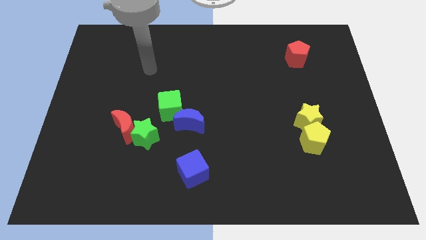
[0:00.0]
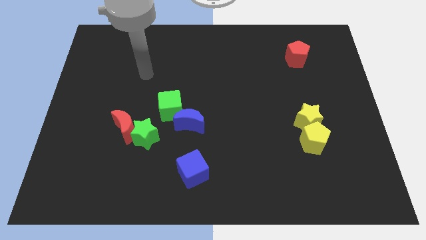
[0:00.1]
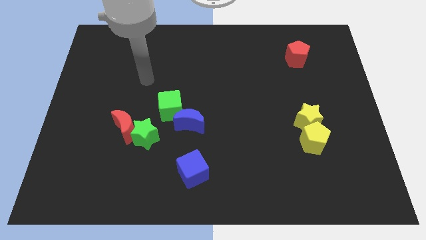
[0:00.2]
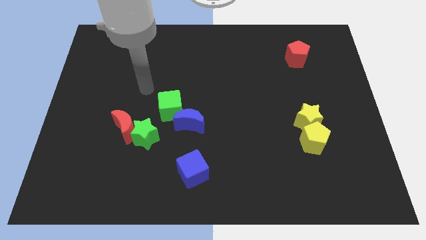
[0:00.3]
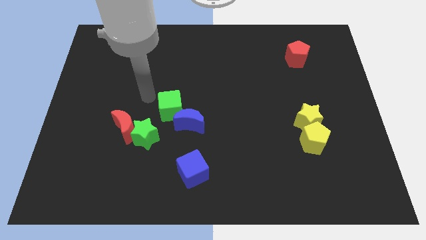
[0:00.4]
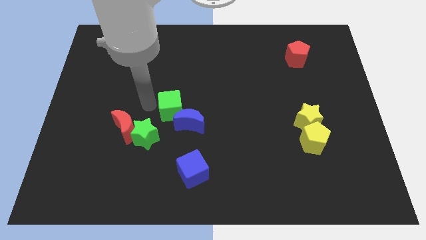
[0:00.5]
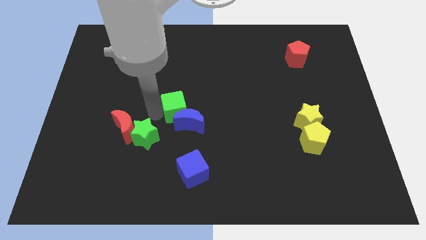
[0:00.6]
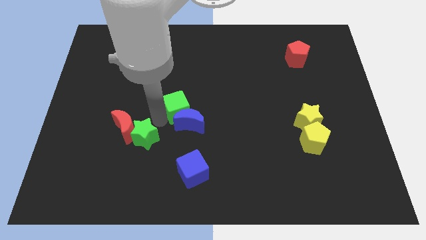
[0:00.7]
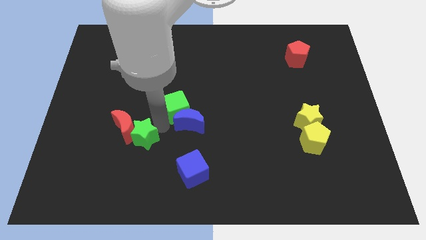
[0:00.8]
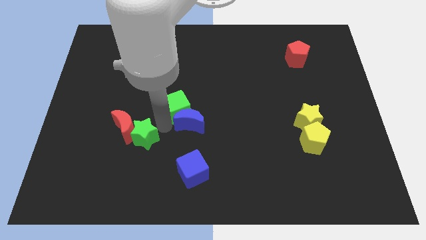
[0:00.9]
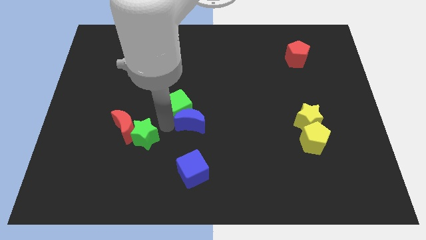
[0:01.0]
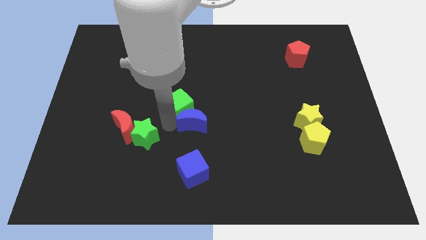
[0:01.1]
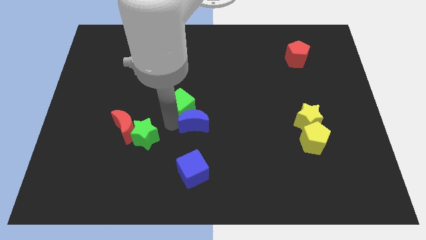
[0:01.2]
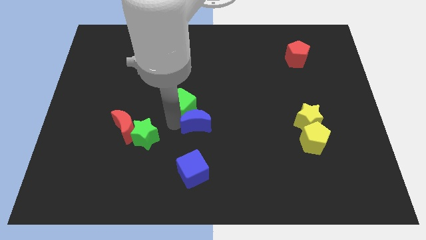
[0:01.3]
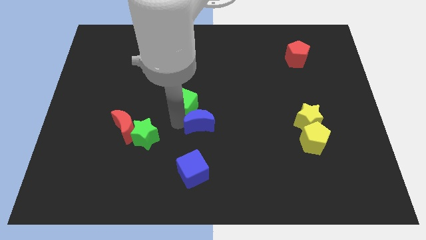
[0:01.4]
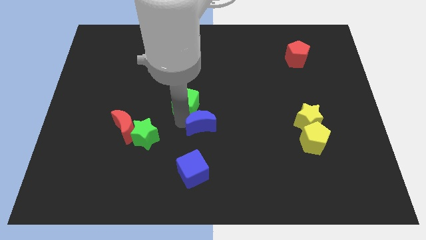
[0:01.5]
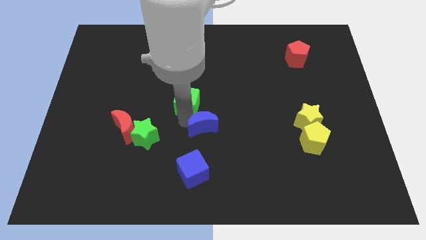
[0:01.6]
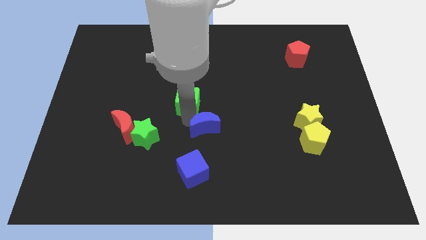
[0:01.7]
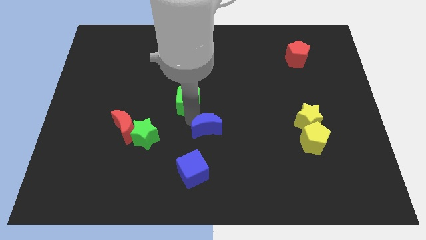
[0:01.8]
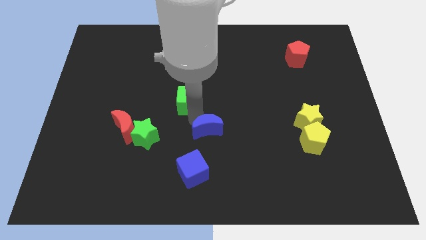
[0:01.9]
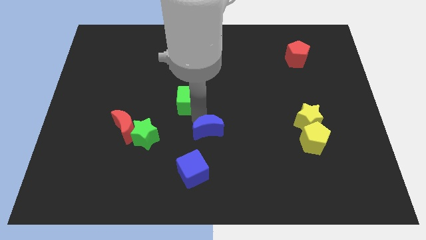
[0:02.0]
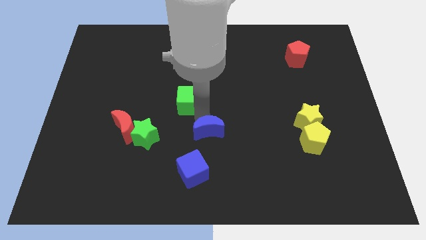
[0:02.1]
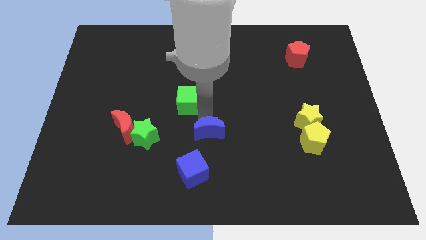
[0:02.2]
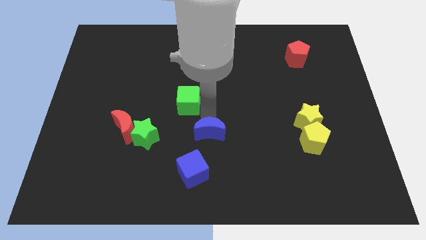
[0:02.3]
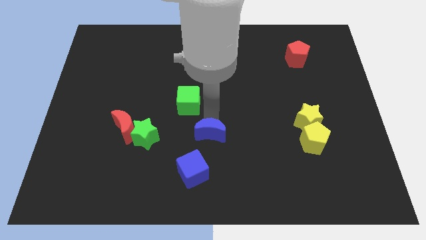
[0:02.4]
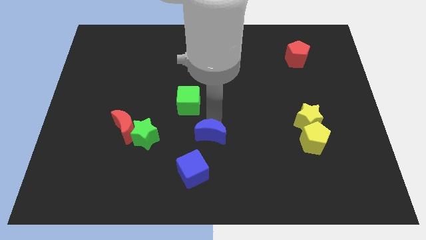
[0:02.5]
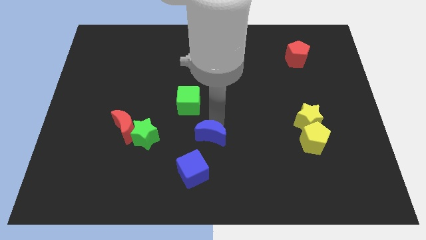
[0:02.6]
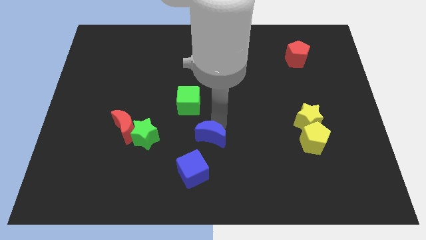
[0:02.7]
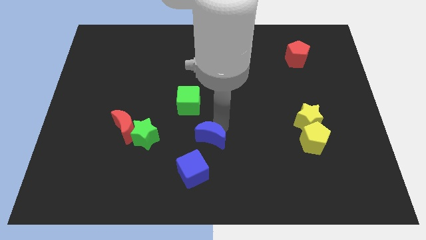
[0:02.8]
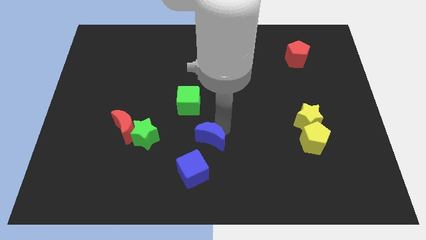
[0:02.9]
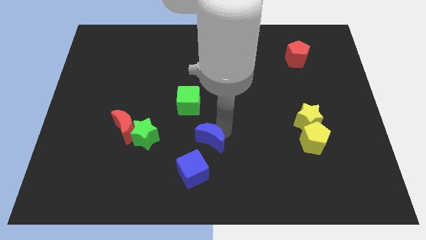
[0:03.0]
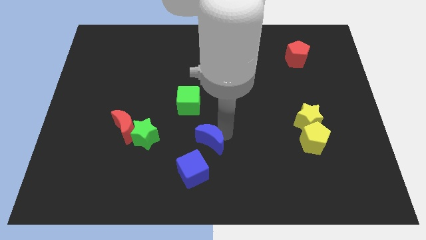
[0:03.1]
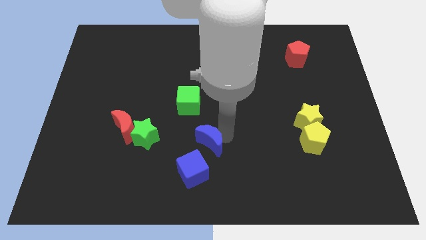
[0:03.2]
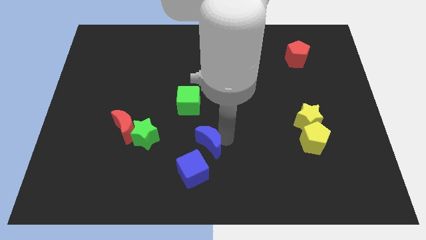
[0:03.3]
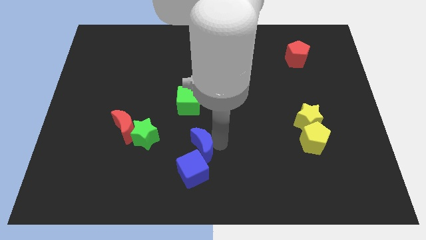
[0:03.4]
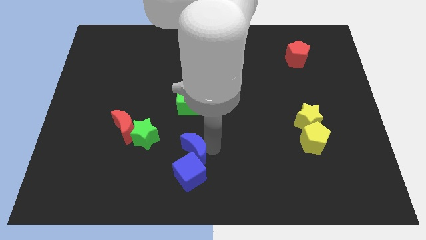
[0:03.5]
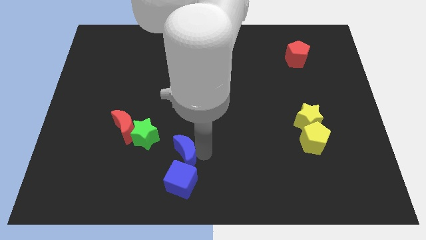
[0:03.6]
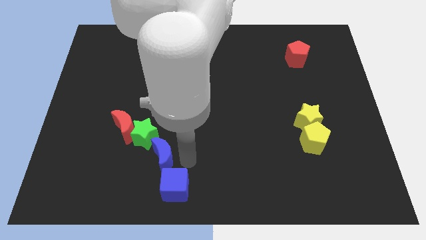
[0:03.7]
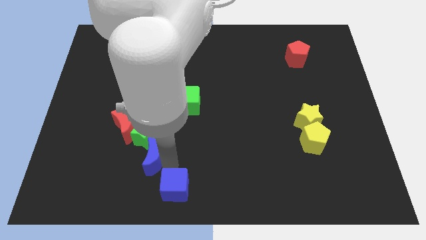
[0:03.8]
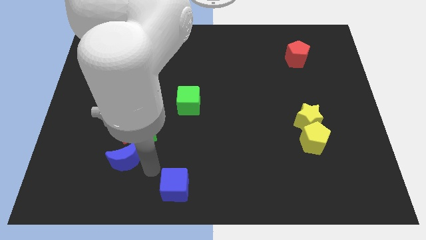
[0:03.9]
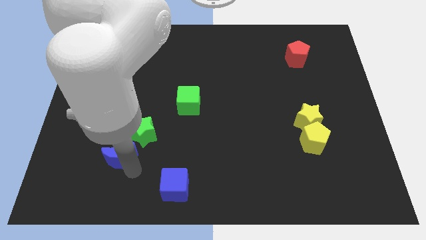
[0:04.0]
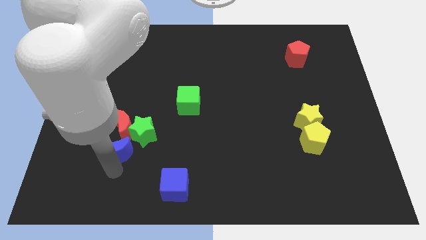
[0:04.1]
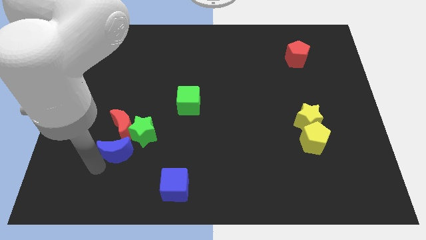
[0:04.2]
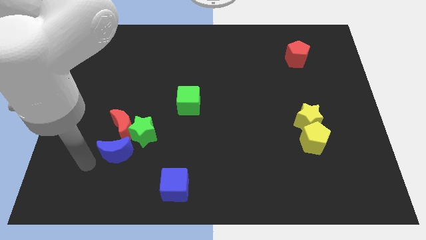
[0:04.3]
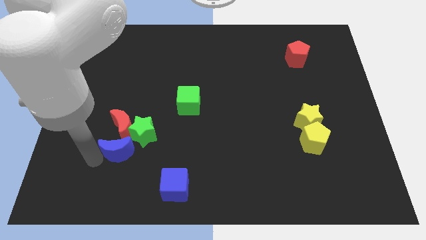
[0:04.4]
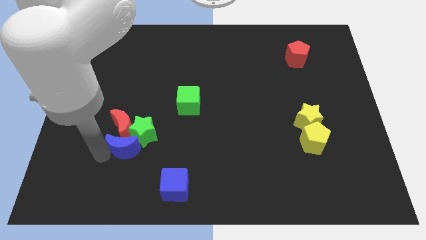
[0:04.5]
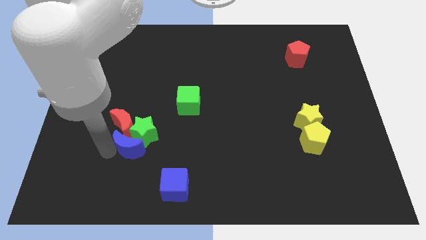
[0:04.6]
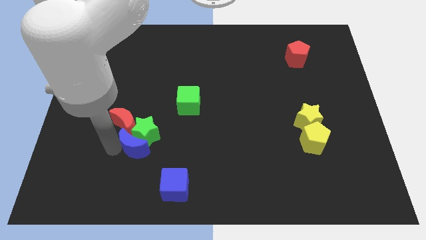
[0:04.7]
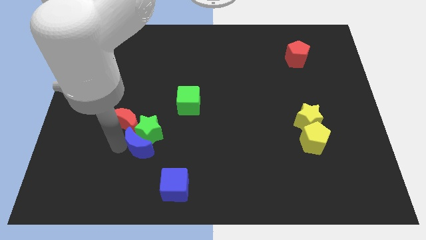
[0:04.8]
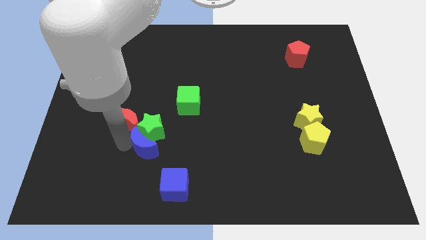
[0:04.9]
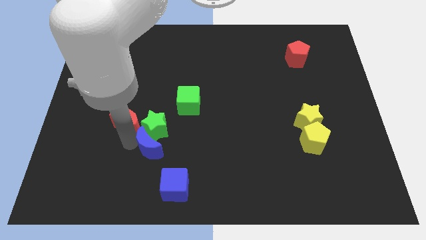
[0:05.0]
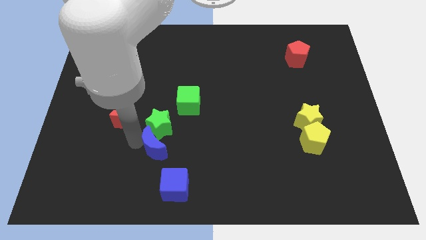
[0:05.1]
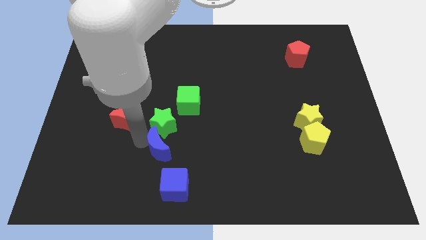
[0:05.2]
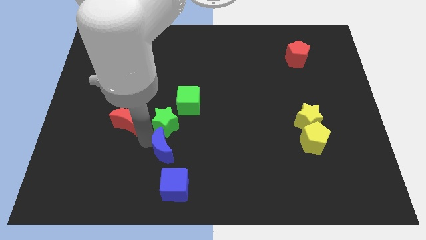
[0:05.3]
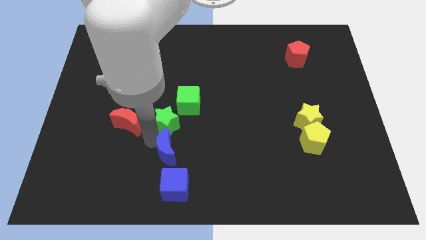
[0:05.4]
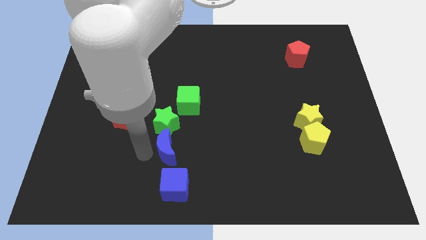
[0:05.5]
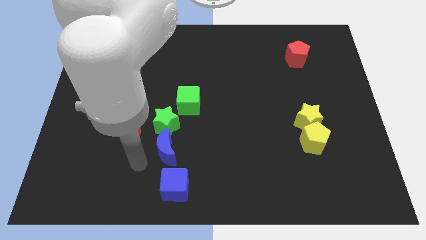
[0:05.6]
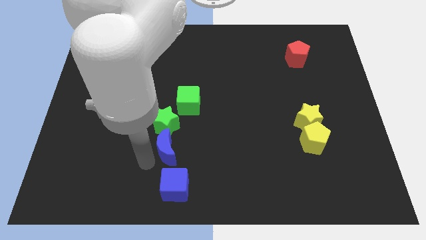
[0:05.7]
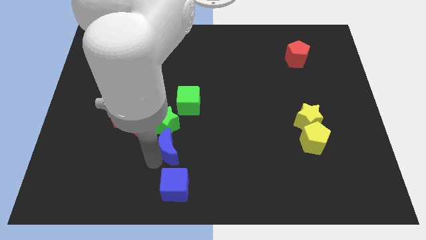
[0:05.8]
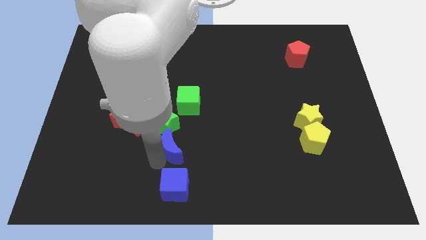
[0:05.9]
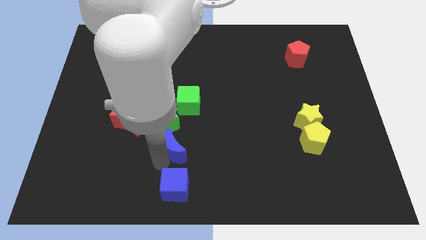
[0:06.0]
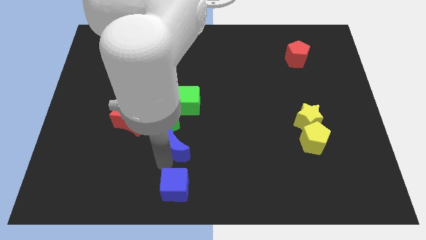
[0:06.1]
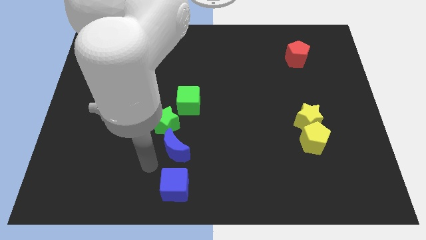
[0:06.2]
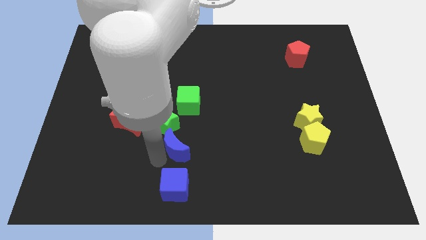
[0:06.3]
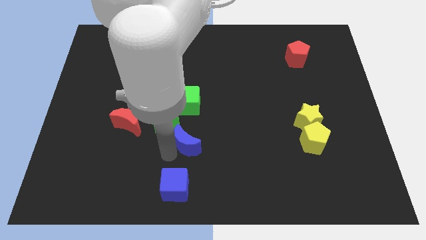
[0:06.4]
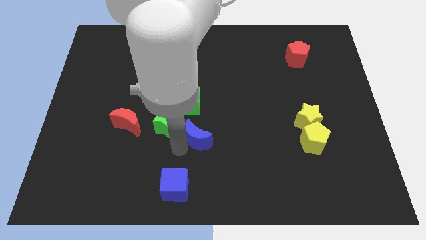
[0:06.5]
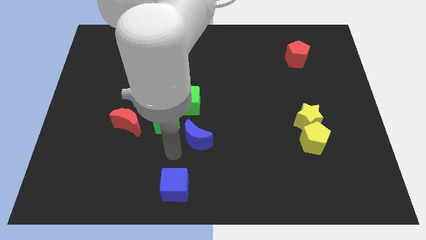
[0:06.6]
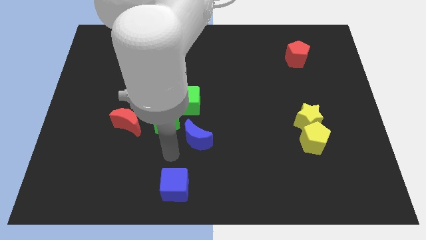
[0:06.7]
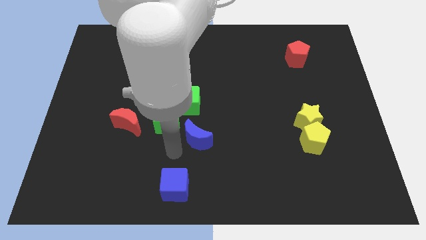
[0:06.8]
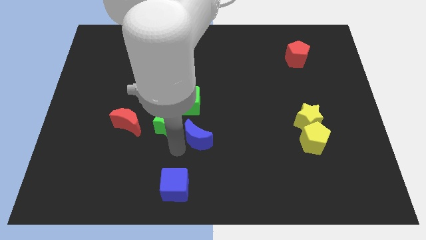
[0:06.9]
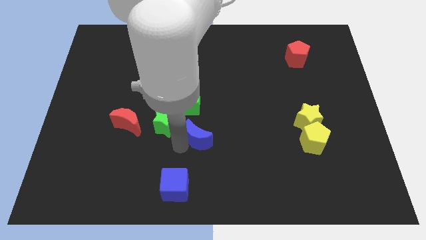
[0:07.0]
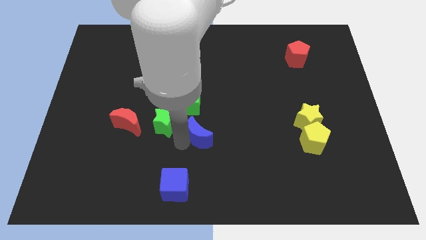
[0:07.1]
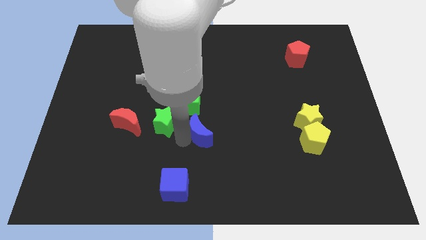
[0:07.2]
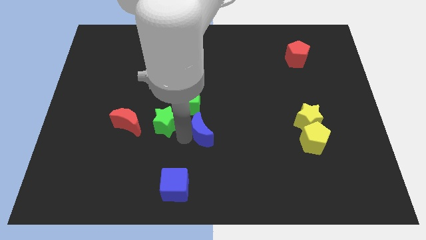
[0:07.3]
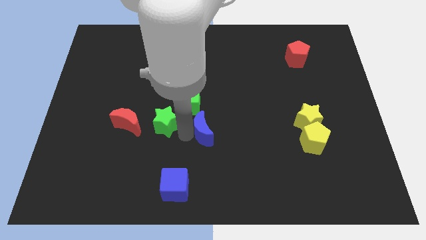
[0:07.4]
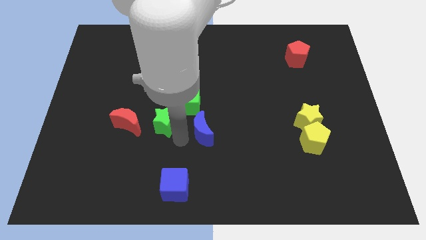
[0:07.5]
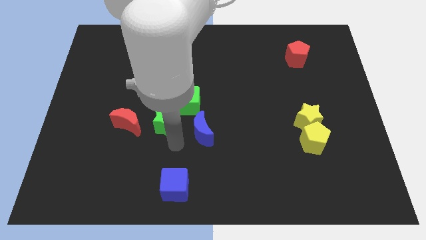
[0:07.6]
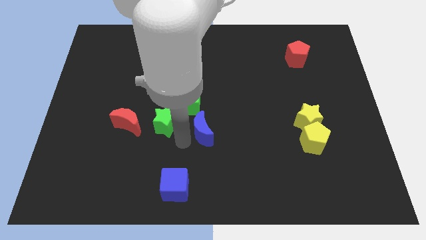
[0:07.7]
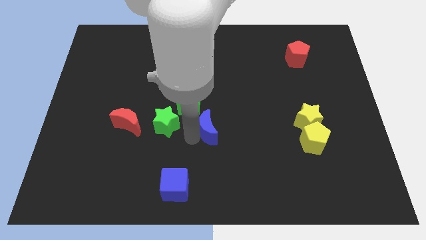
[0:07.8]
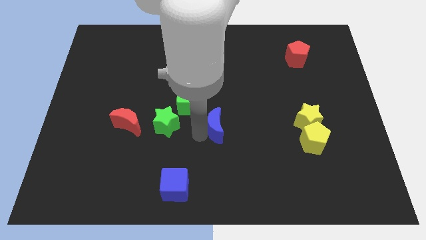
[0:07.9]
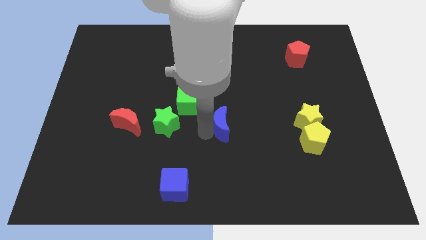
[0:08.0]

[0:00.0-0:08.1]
move the blue moon to the right somewhat
